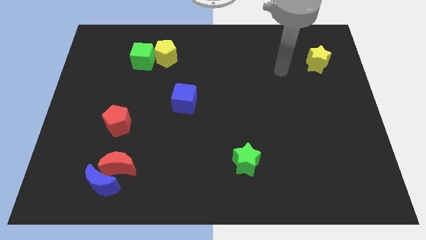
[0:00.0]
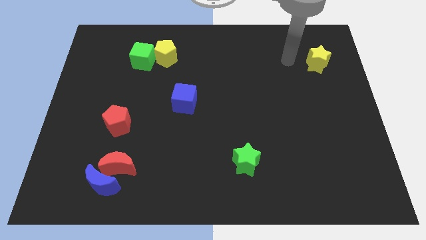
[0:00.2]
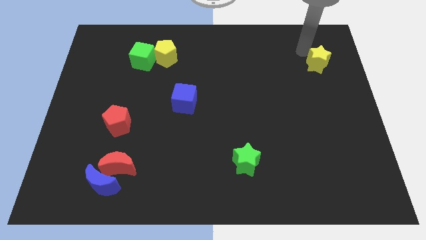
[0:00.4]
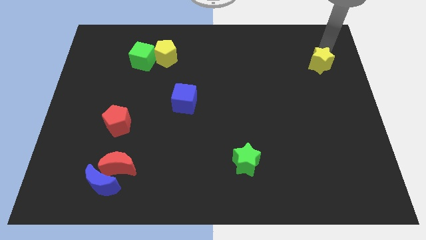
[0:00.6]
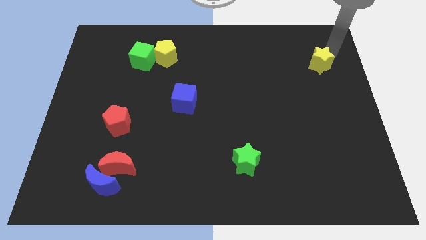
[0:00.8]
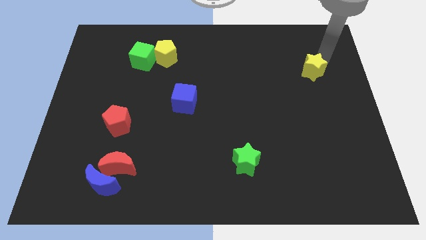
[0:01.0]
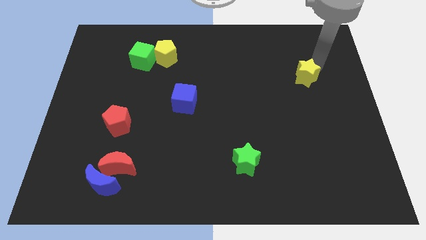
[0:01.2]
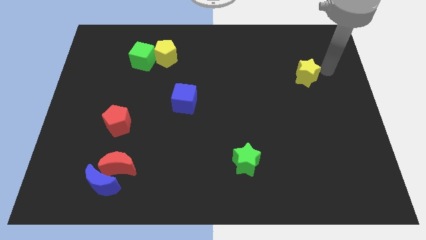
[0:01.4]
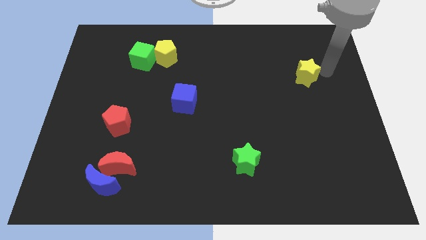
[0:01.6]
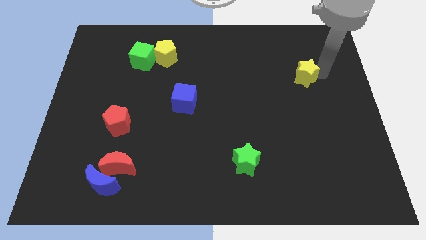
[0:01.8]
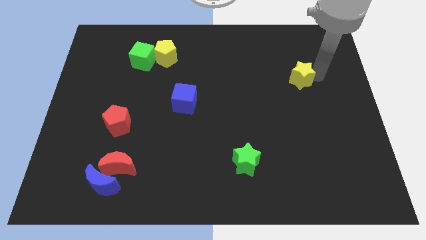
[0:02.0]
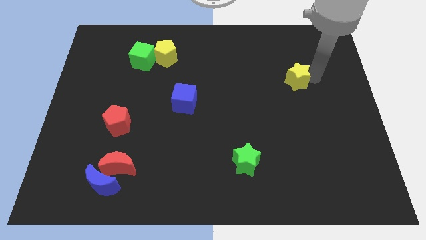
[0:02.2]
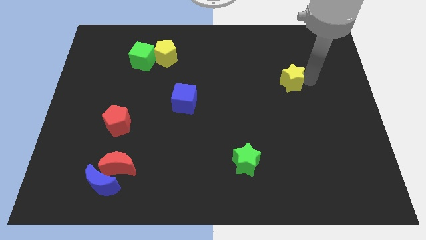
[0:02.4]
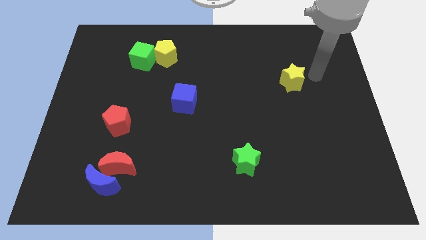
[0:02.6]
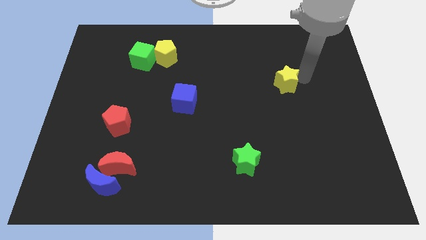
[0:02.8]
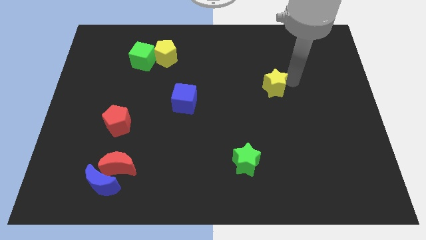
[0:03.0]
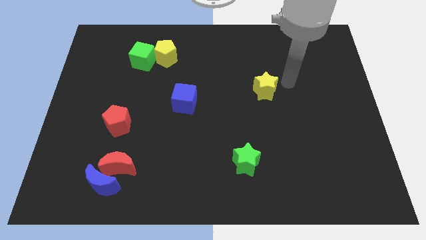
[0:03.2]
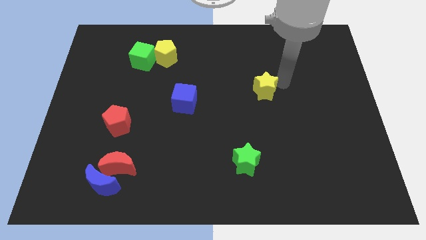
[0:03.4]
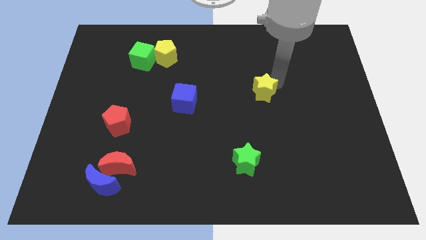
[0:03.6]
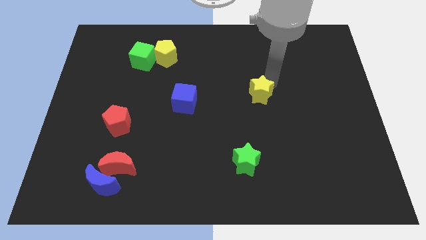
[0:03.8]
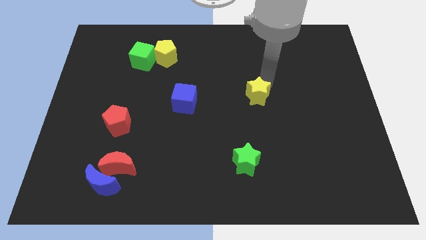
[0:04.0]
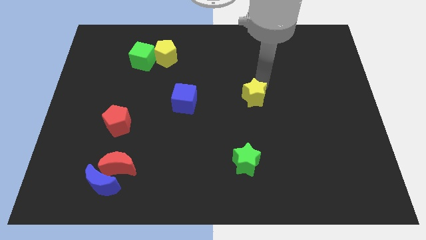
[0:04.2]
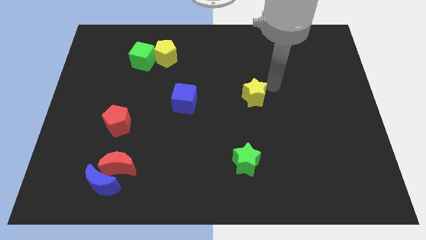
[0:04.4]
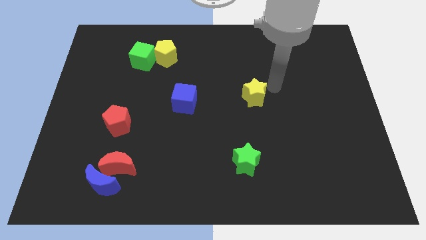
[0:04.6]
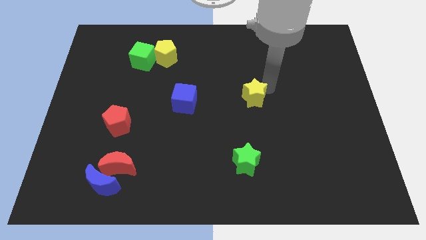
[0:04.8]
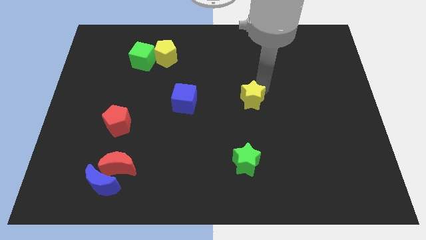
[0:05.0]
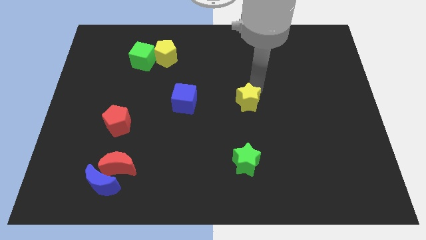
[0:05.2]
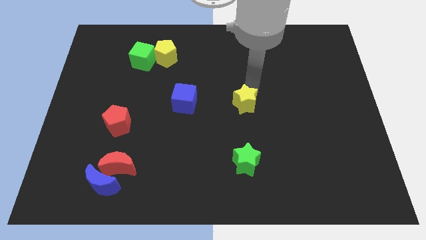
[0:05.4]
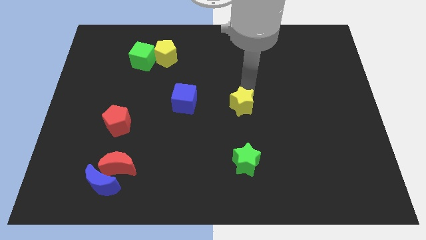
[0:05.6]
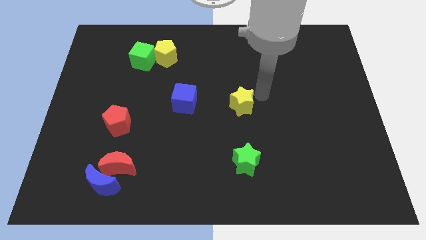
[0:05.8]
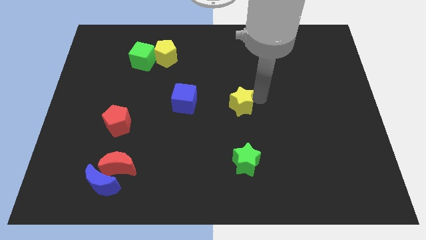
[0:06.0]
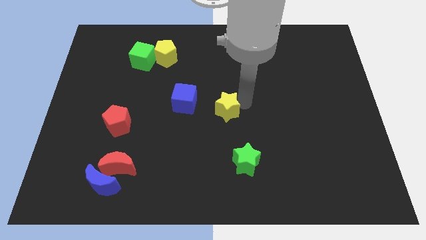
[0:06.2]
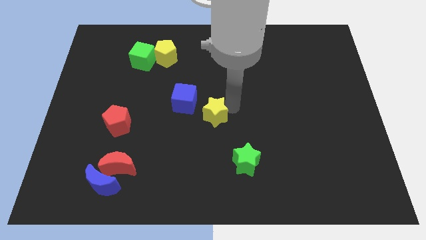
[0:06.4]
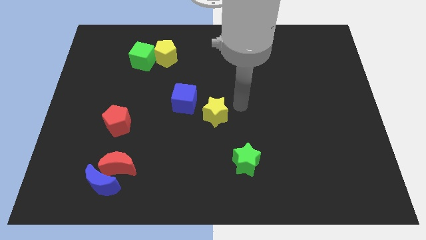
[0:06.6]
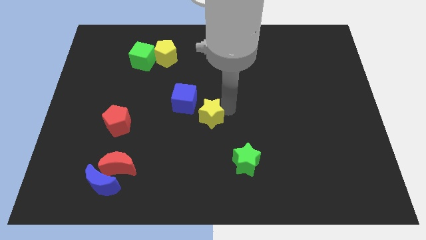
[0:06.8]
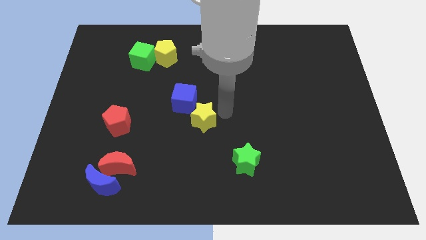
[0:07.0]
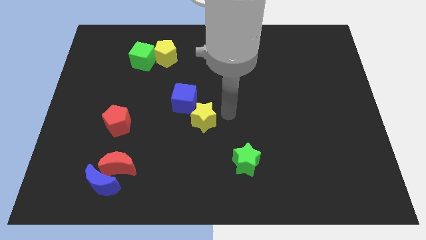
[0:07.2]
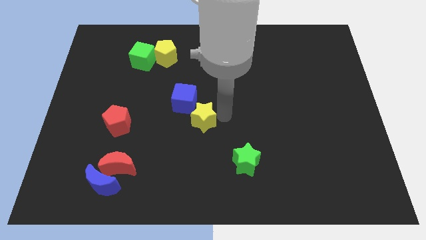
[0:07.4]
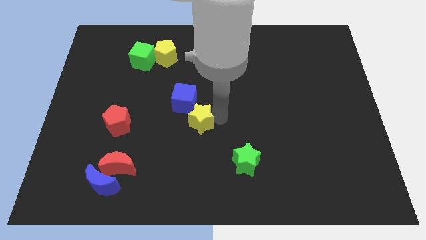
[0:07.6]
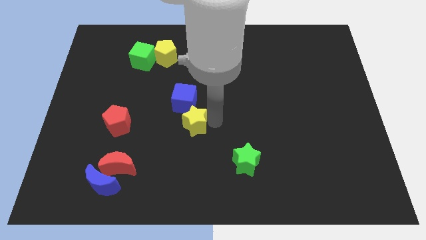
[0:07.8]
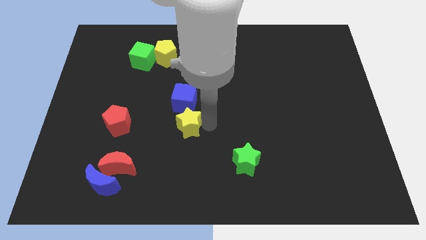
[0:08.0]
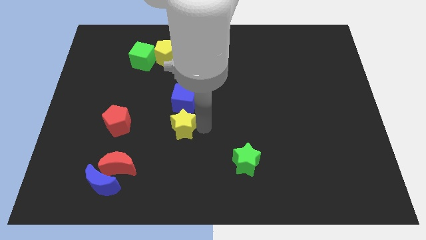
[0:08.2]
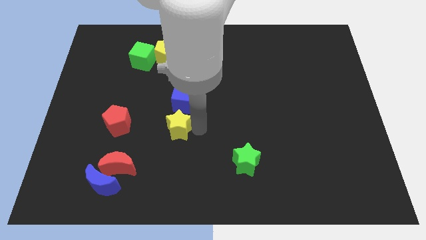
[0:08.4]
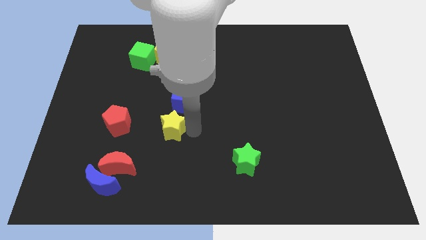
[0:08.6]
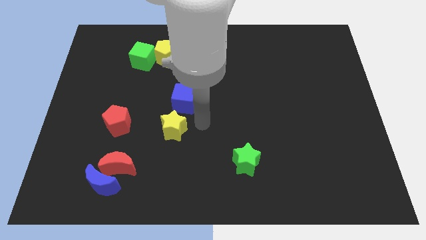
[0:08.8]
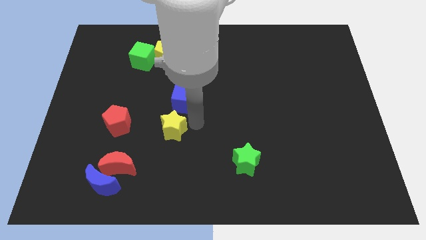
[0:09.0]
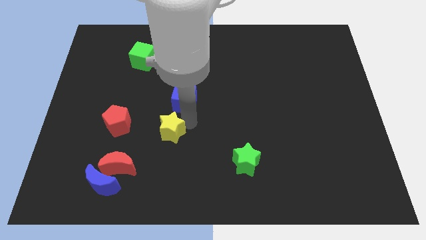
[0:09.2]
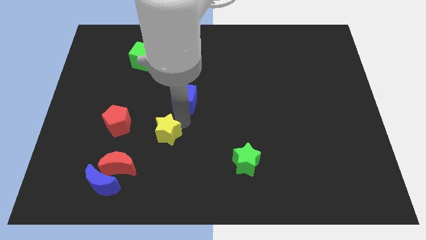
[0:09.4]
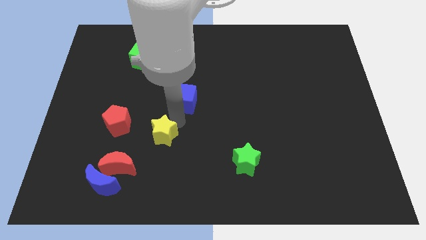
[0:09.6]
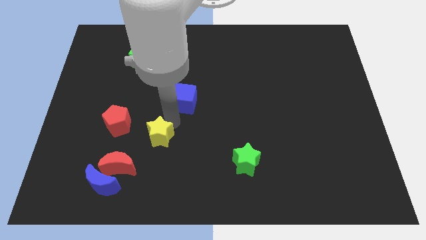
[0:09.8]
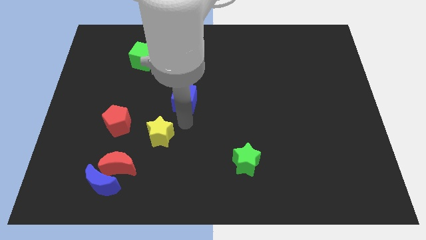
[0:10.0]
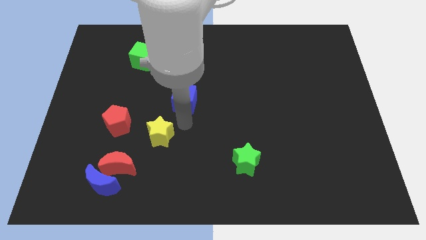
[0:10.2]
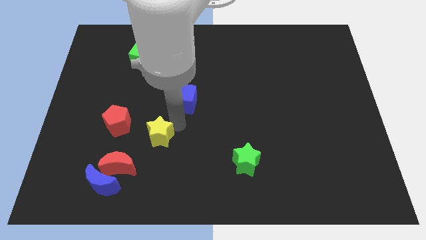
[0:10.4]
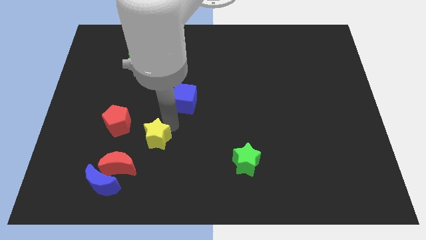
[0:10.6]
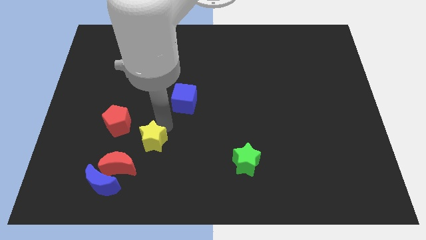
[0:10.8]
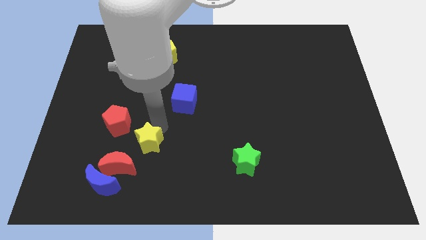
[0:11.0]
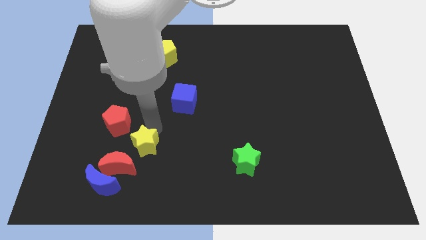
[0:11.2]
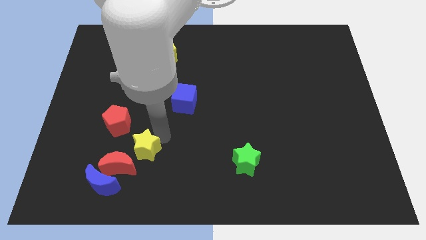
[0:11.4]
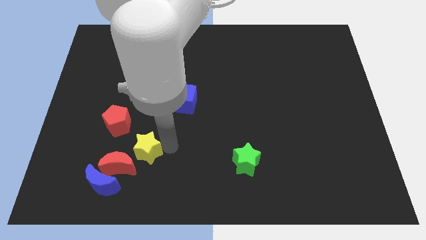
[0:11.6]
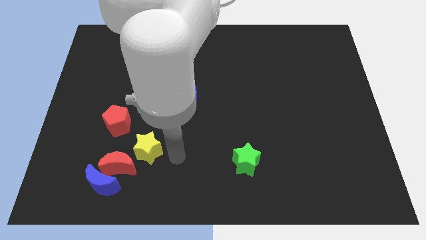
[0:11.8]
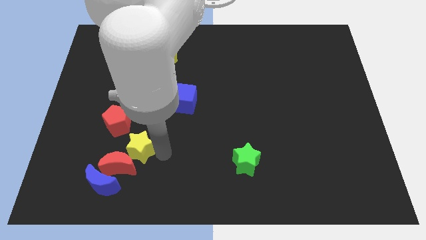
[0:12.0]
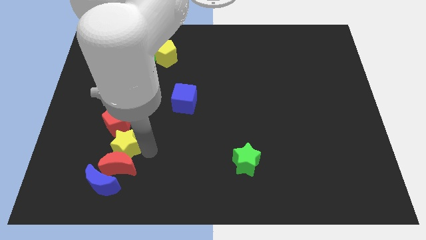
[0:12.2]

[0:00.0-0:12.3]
push the yellow star to the top left side of the red moon

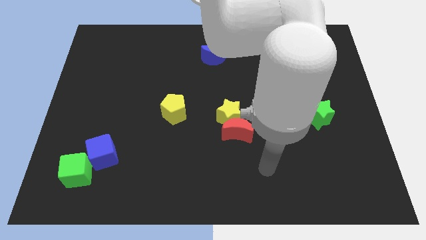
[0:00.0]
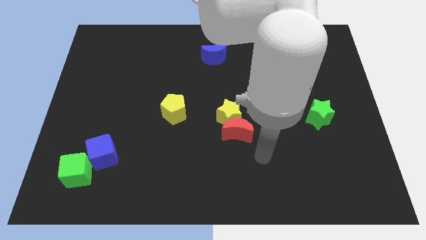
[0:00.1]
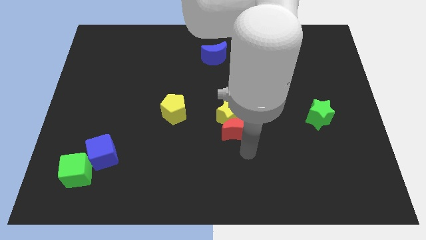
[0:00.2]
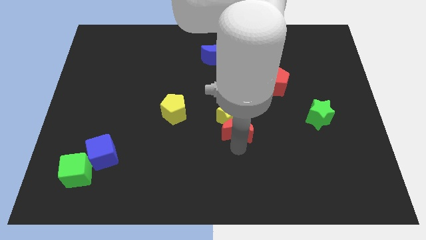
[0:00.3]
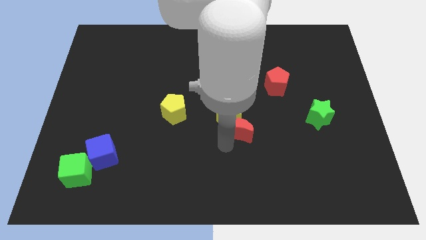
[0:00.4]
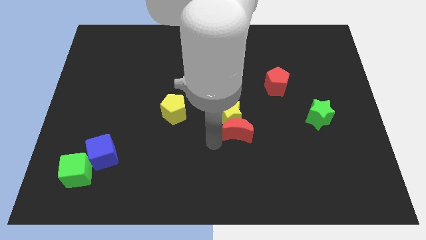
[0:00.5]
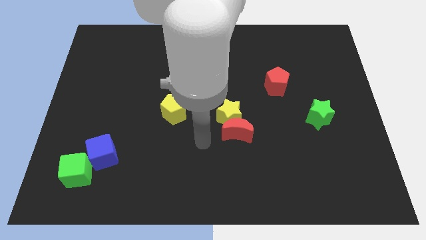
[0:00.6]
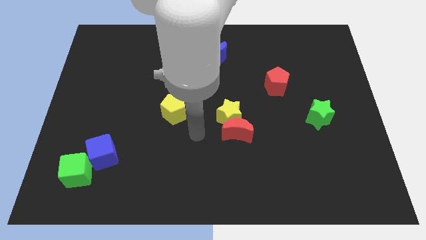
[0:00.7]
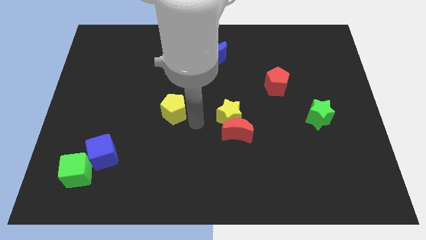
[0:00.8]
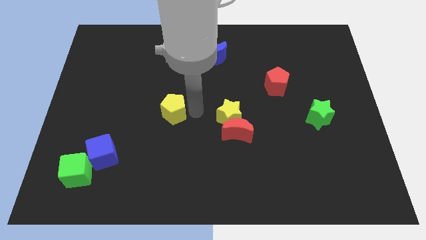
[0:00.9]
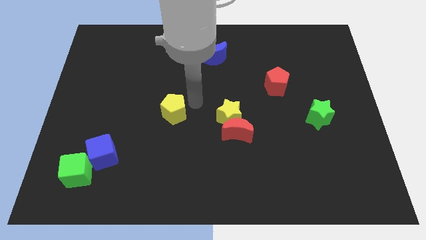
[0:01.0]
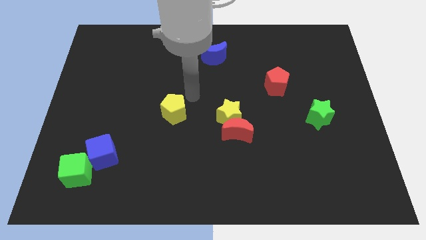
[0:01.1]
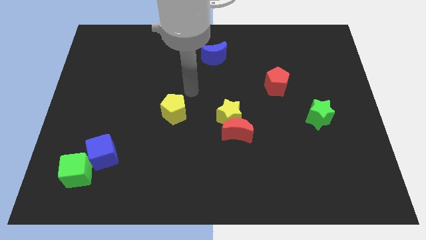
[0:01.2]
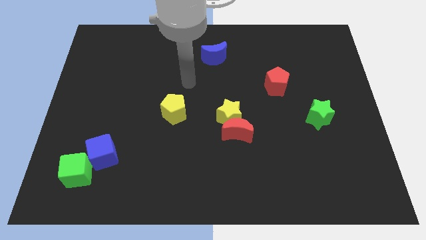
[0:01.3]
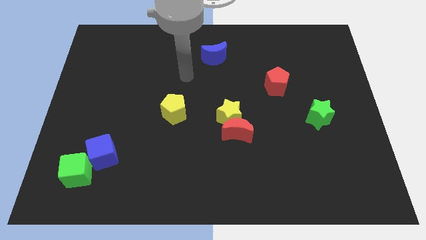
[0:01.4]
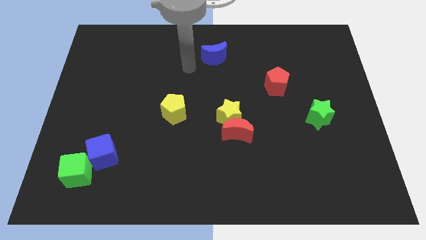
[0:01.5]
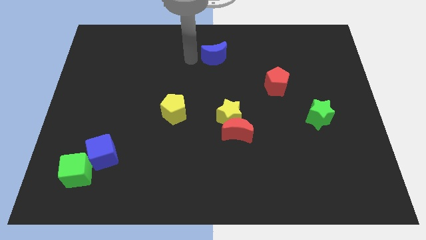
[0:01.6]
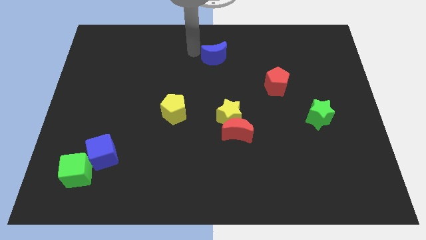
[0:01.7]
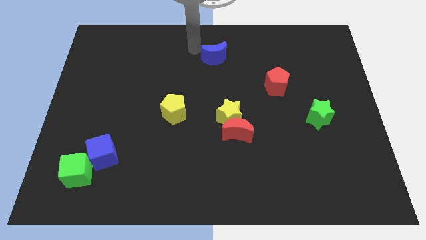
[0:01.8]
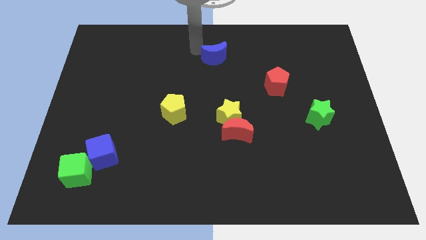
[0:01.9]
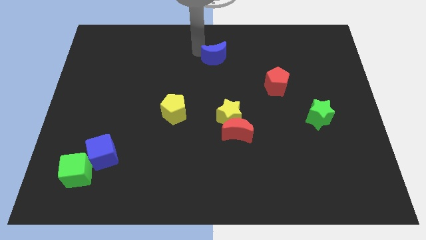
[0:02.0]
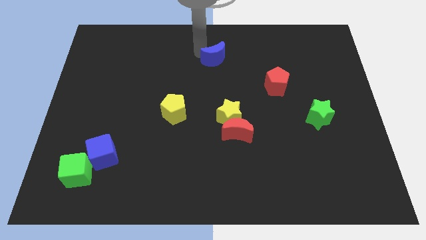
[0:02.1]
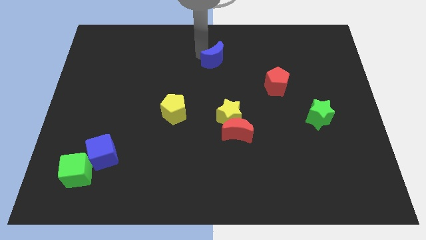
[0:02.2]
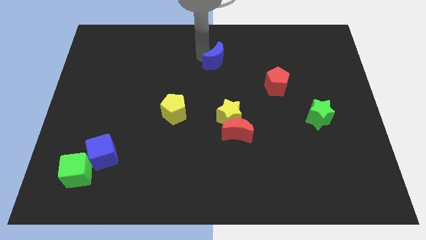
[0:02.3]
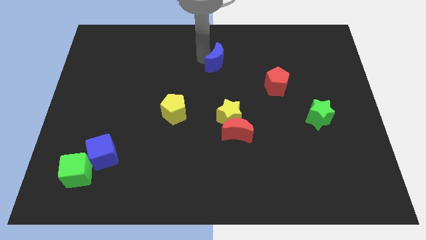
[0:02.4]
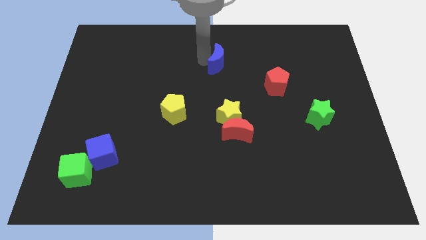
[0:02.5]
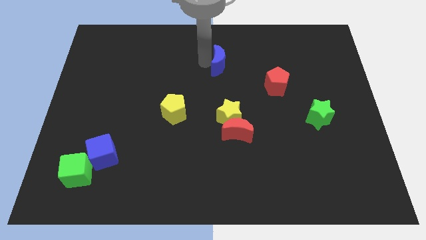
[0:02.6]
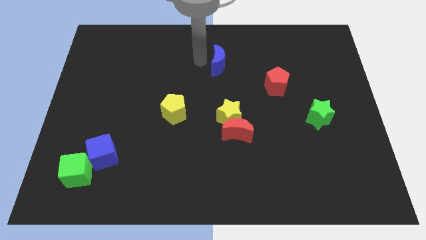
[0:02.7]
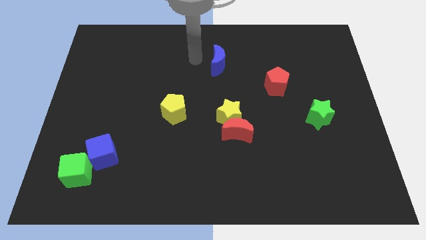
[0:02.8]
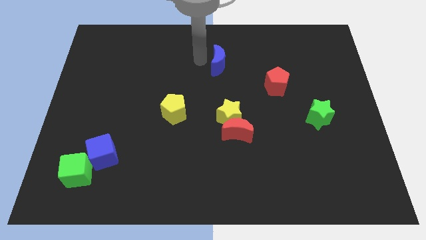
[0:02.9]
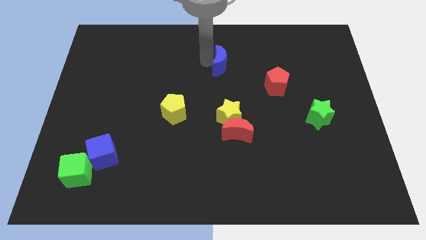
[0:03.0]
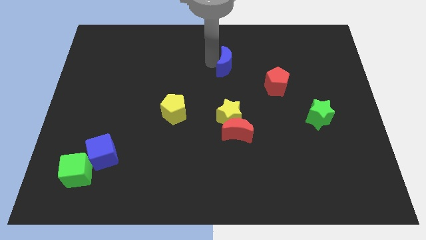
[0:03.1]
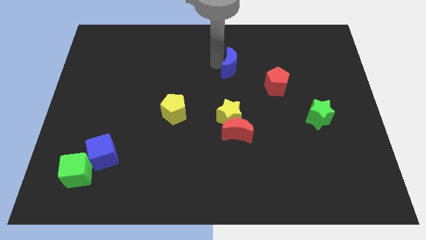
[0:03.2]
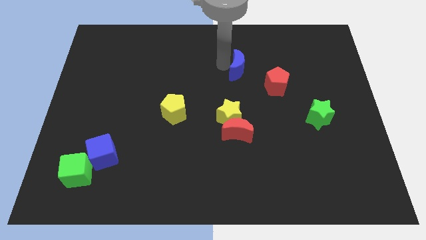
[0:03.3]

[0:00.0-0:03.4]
put the blue moon to the top left of the red pentagon
